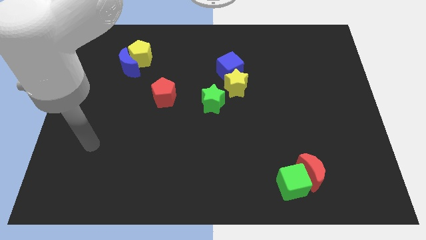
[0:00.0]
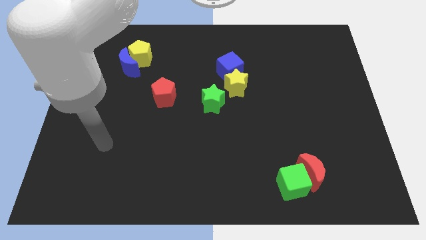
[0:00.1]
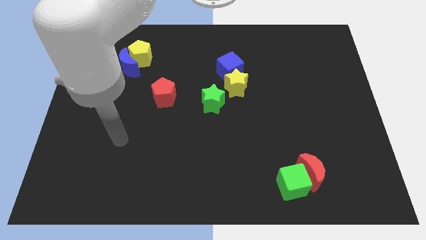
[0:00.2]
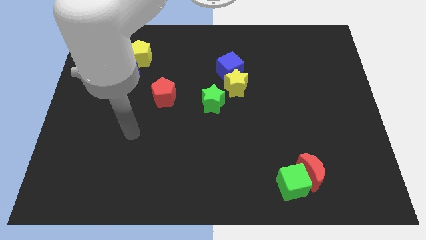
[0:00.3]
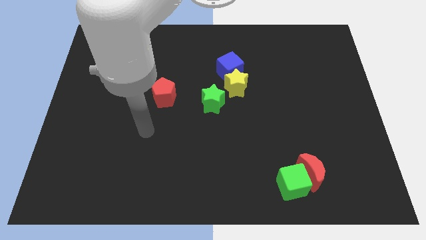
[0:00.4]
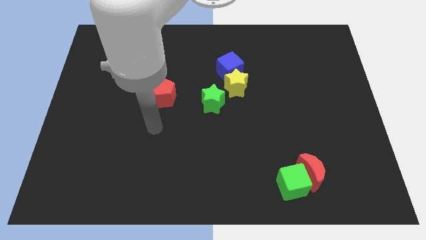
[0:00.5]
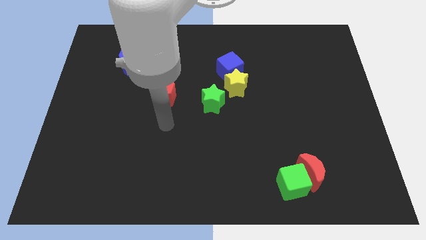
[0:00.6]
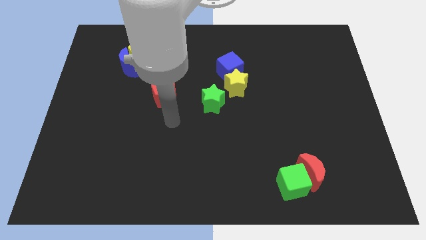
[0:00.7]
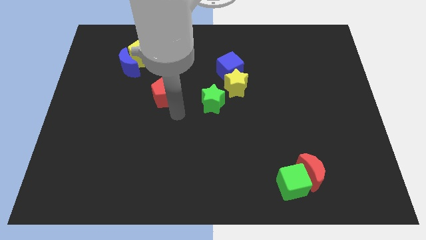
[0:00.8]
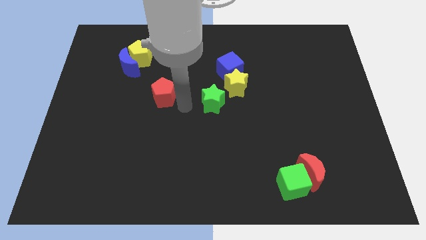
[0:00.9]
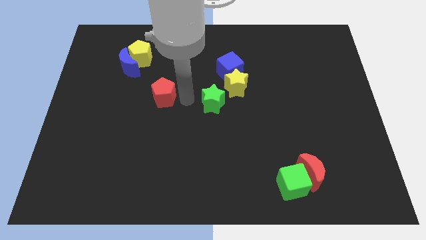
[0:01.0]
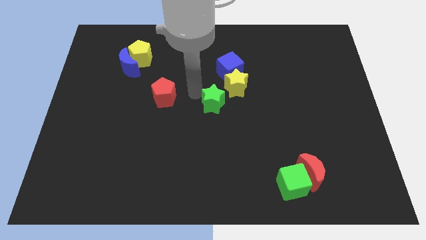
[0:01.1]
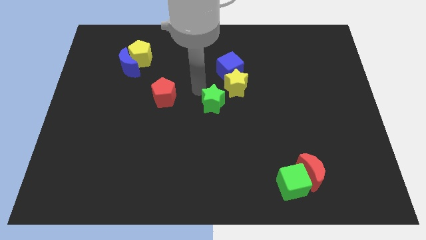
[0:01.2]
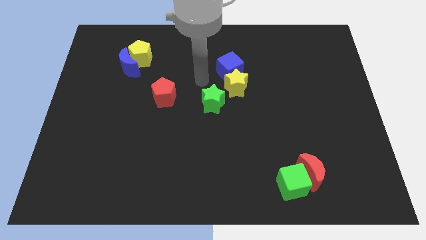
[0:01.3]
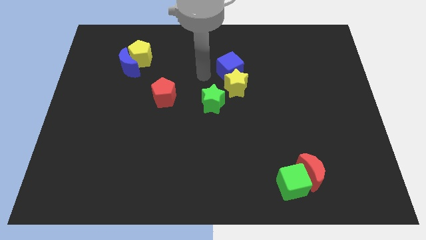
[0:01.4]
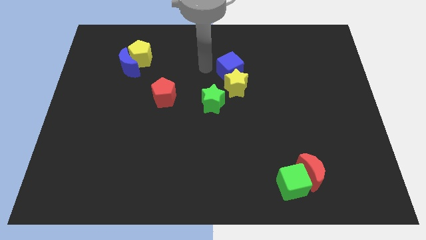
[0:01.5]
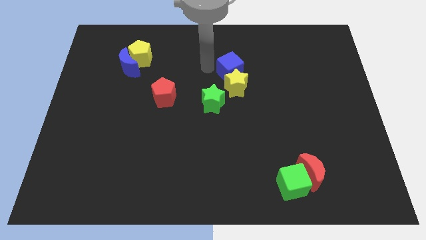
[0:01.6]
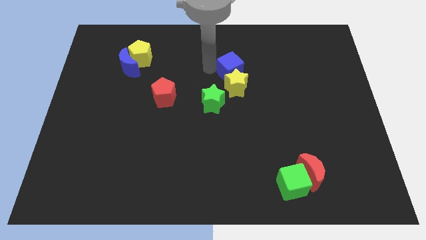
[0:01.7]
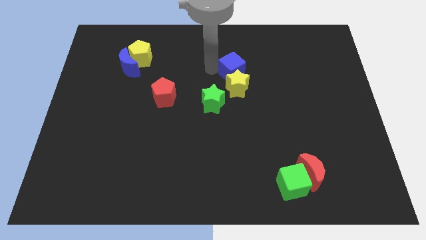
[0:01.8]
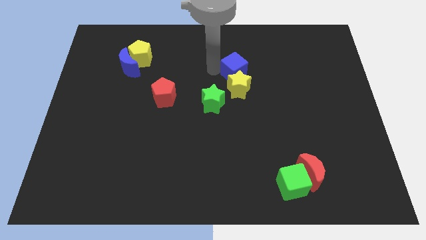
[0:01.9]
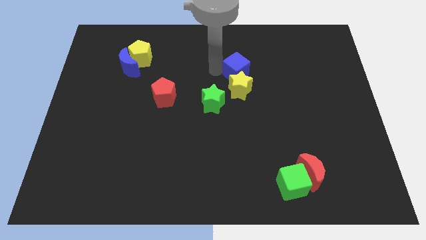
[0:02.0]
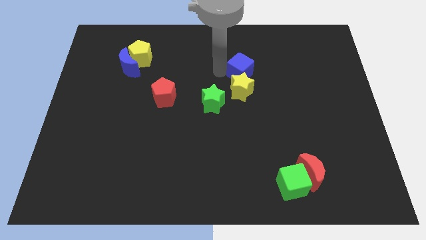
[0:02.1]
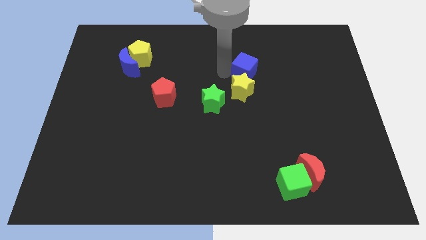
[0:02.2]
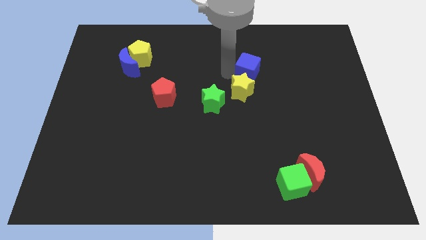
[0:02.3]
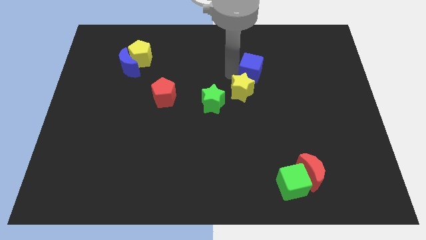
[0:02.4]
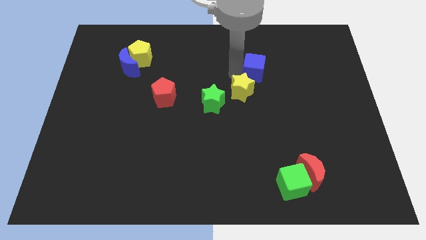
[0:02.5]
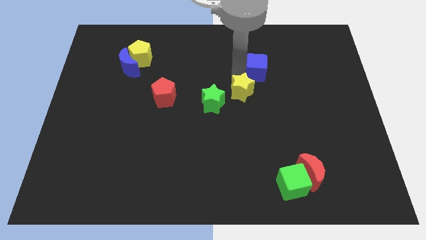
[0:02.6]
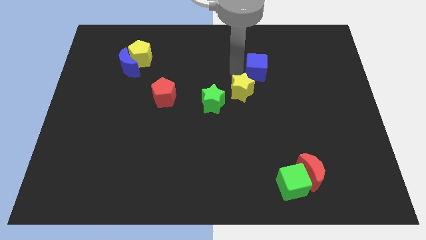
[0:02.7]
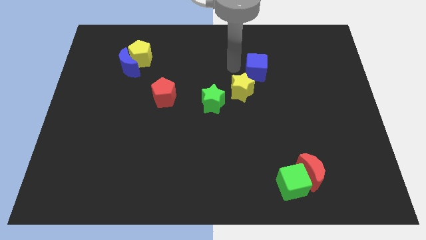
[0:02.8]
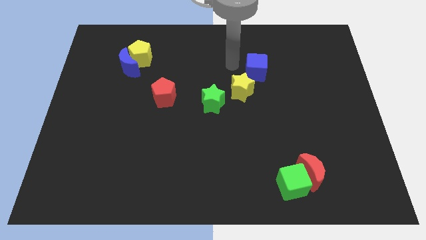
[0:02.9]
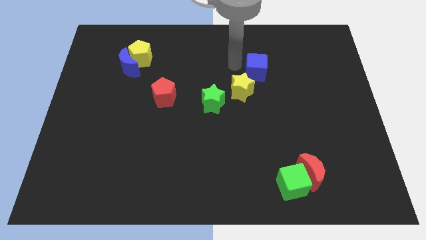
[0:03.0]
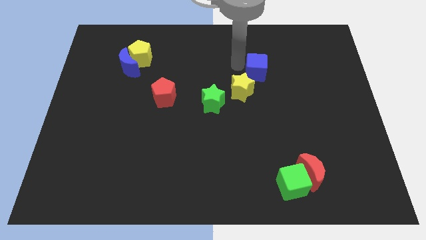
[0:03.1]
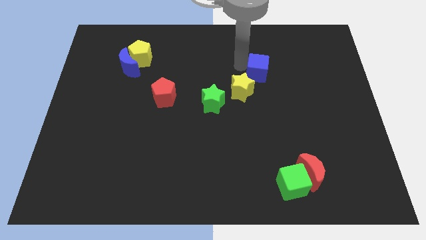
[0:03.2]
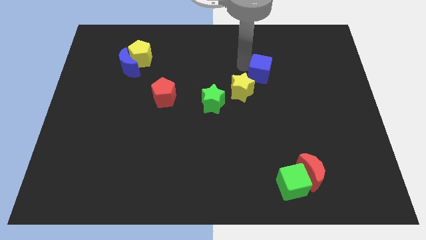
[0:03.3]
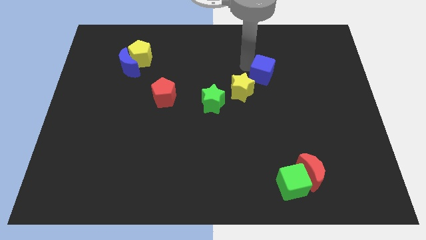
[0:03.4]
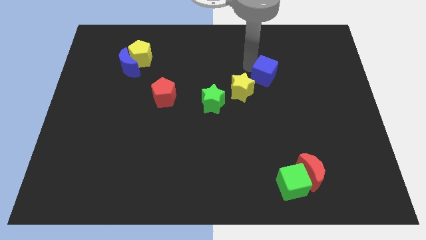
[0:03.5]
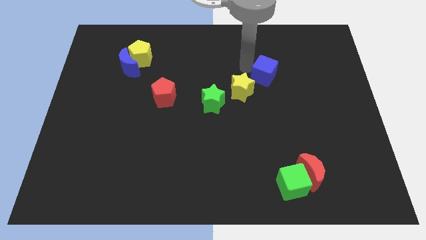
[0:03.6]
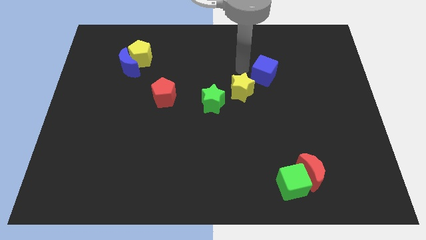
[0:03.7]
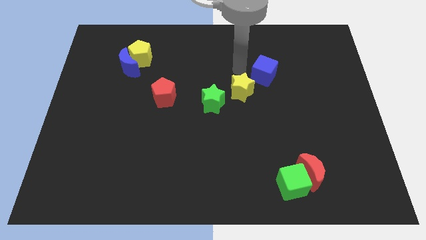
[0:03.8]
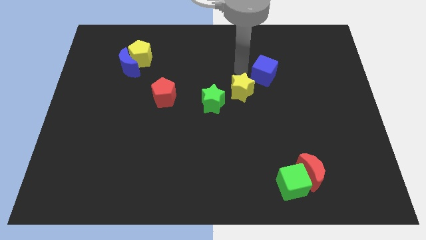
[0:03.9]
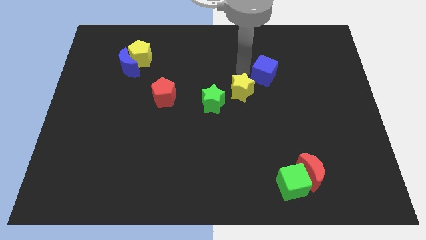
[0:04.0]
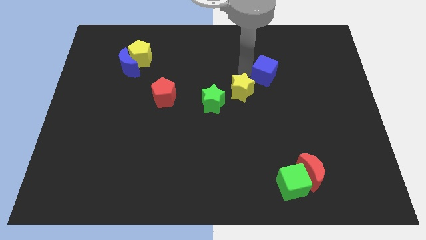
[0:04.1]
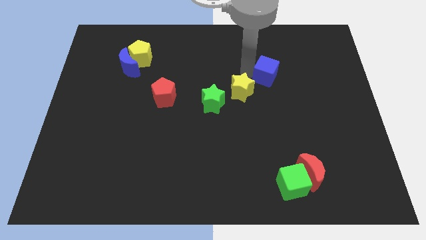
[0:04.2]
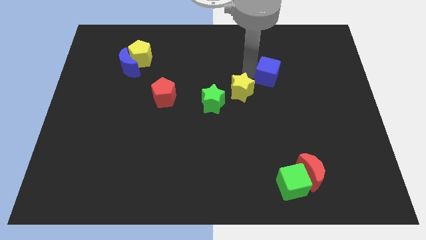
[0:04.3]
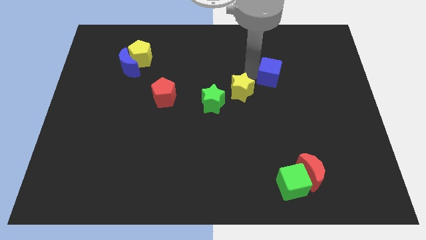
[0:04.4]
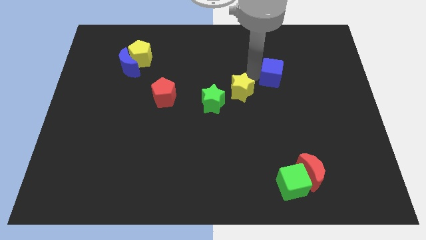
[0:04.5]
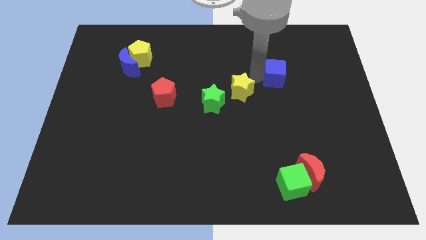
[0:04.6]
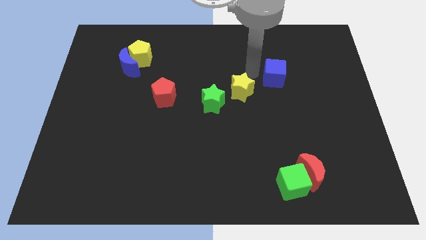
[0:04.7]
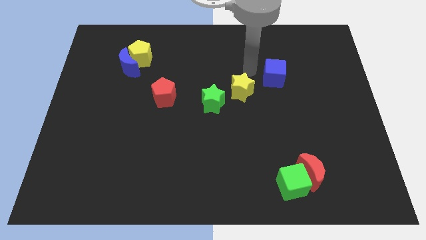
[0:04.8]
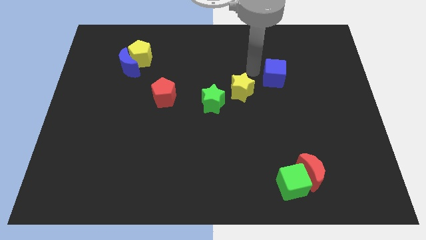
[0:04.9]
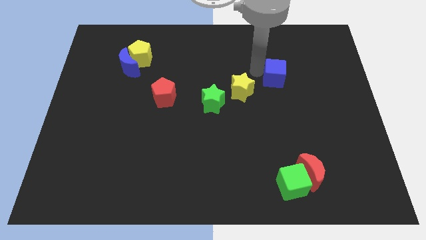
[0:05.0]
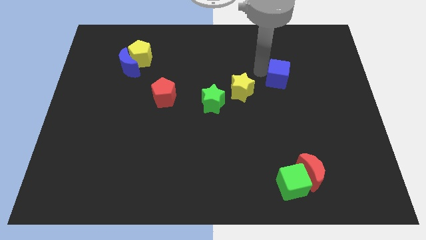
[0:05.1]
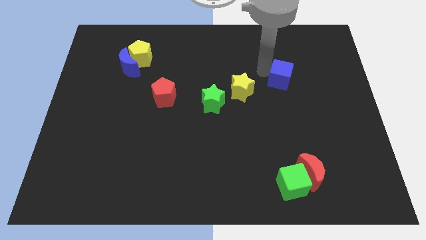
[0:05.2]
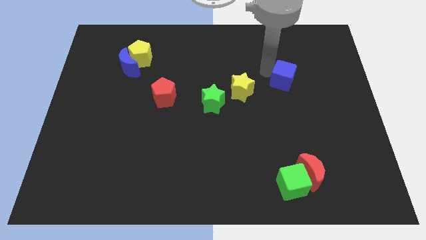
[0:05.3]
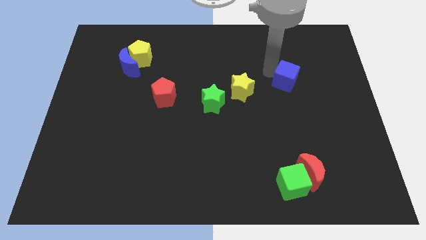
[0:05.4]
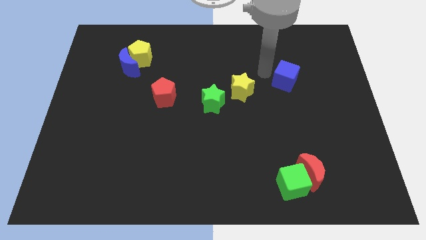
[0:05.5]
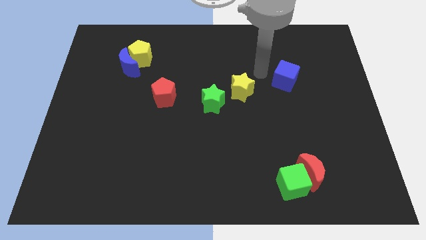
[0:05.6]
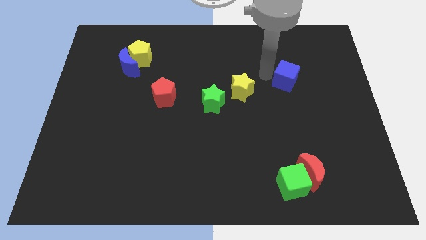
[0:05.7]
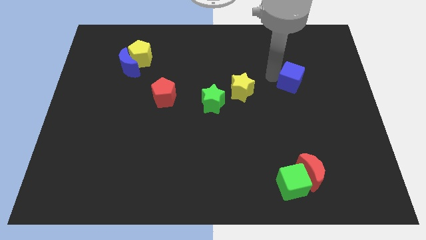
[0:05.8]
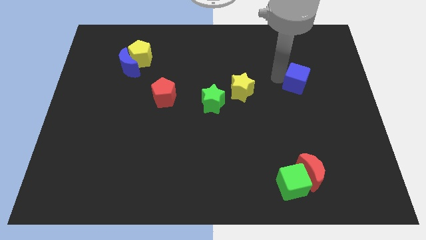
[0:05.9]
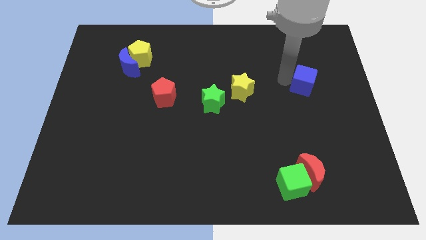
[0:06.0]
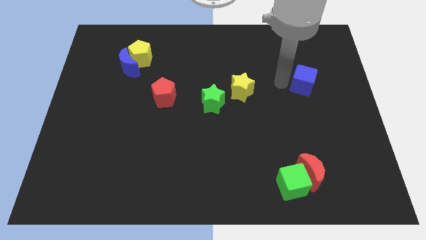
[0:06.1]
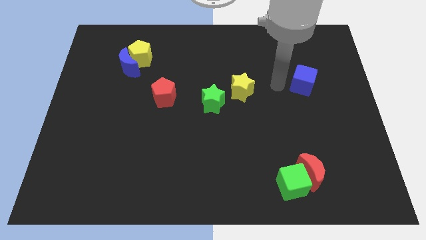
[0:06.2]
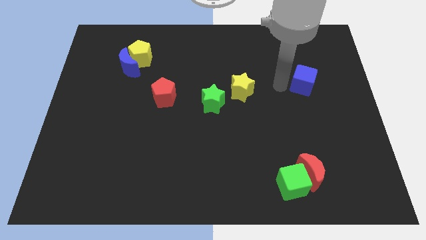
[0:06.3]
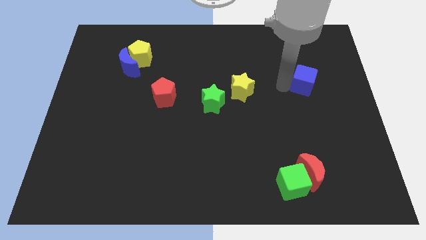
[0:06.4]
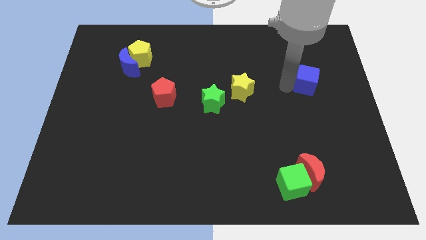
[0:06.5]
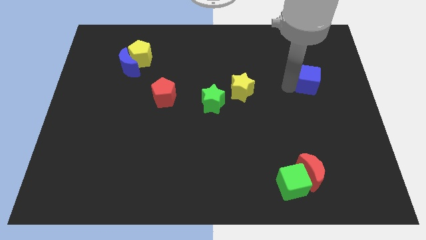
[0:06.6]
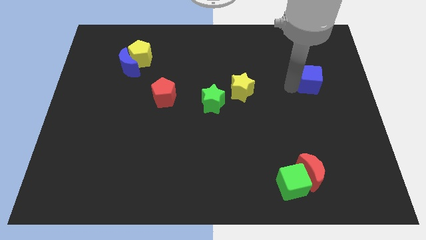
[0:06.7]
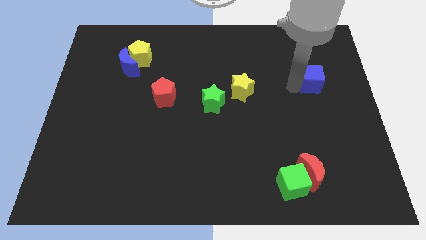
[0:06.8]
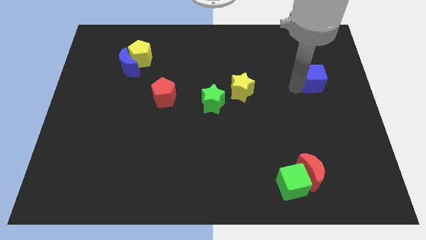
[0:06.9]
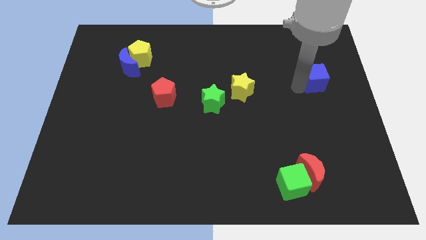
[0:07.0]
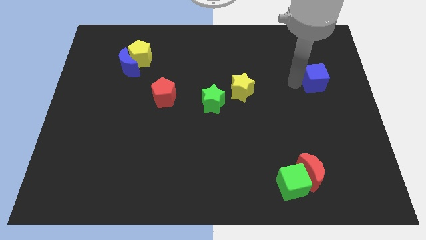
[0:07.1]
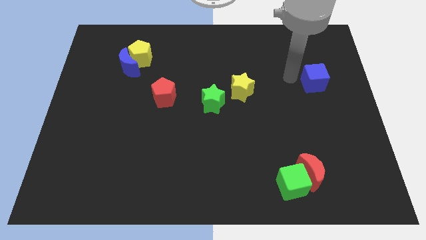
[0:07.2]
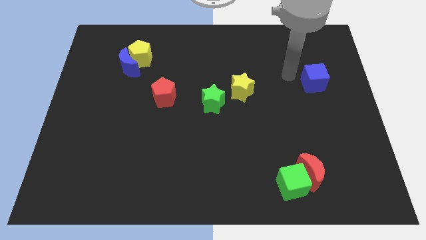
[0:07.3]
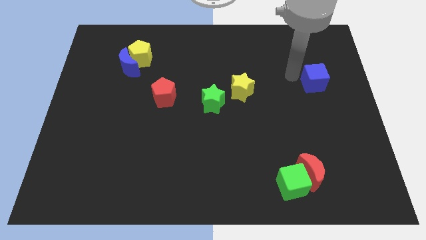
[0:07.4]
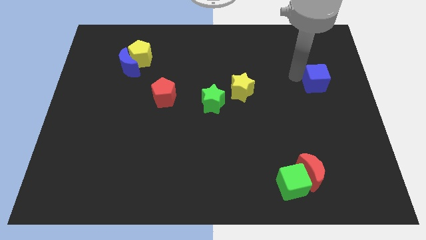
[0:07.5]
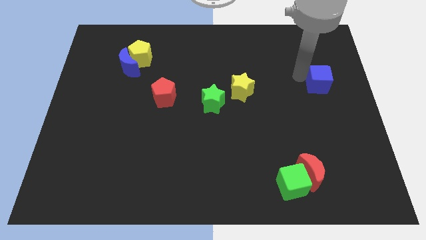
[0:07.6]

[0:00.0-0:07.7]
move the blue cube to the right side of the board
